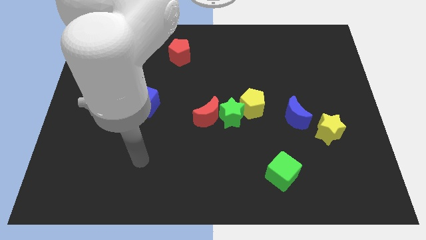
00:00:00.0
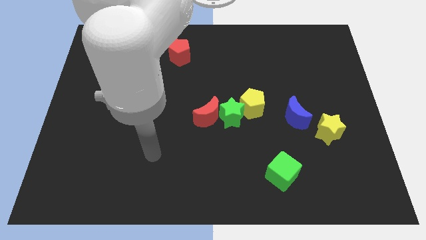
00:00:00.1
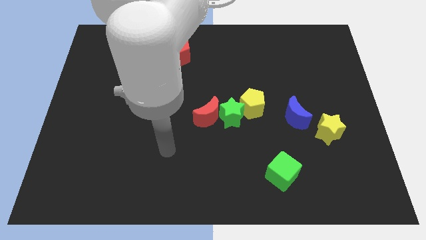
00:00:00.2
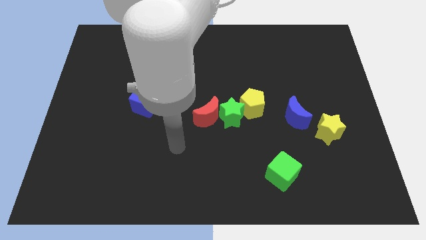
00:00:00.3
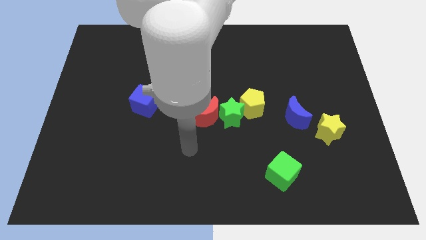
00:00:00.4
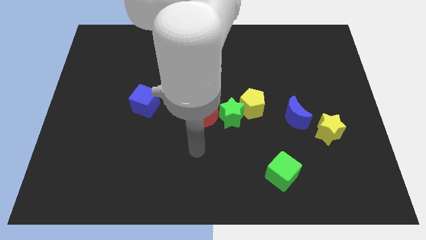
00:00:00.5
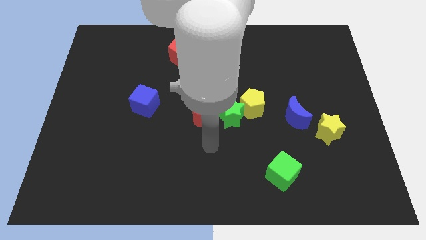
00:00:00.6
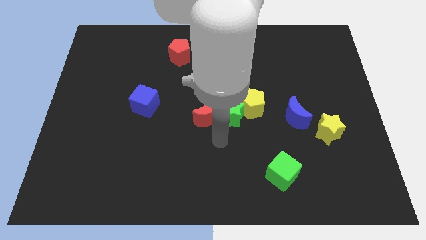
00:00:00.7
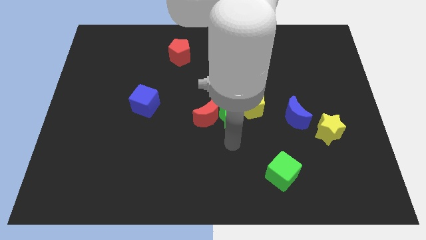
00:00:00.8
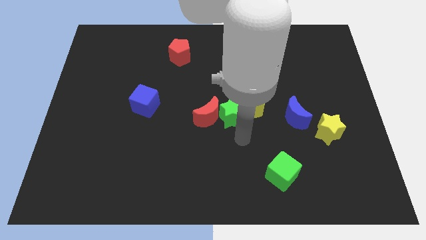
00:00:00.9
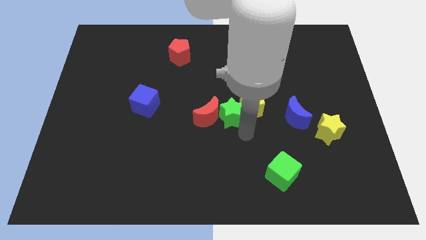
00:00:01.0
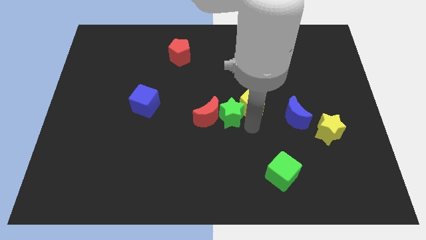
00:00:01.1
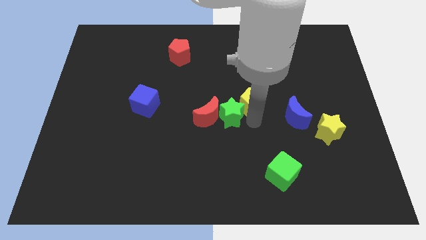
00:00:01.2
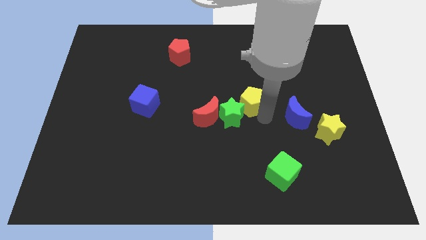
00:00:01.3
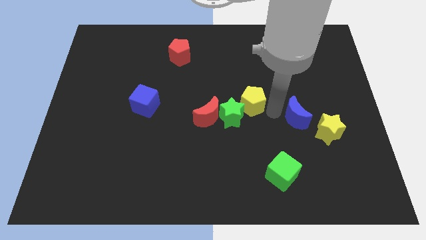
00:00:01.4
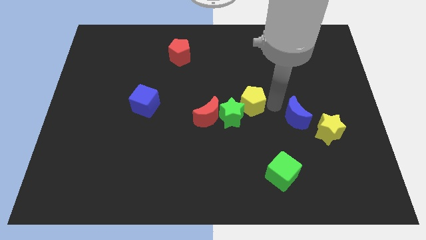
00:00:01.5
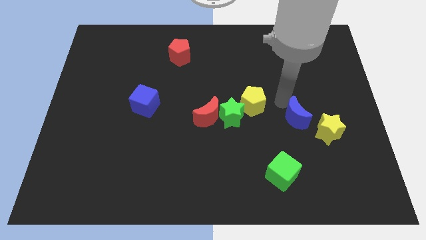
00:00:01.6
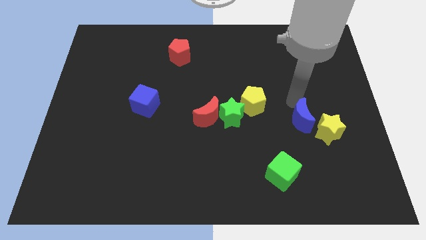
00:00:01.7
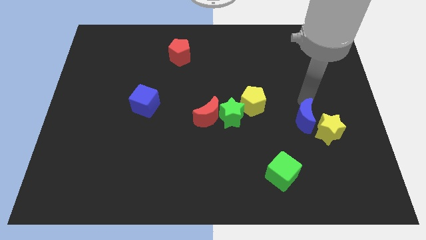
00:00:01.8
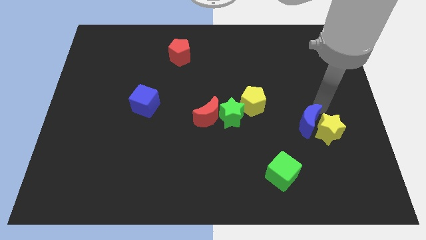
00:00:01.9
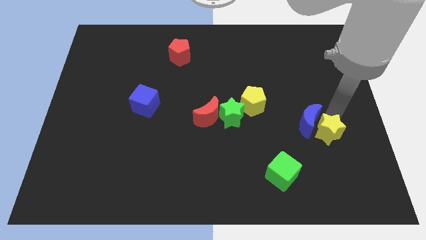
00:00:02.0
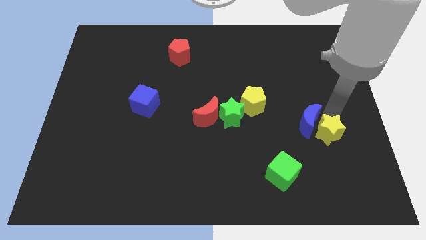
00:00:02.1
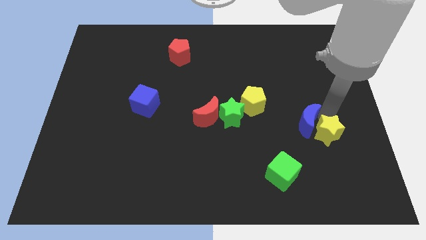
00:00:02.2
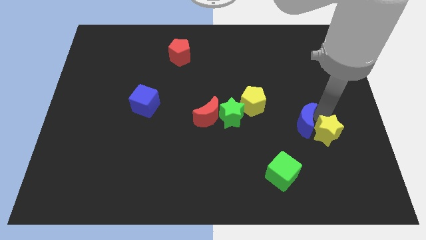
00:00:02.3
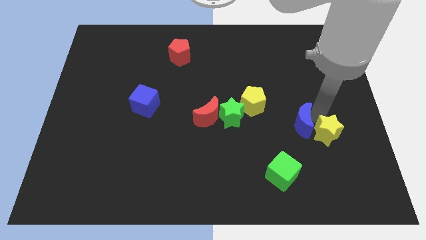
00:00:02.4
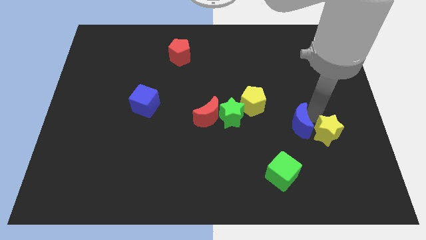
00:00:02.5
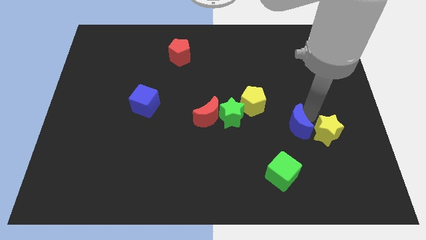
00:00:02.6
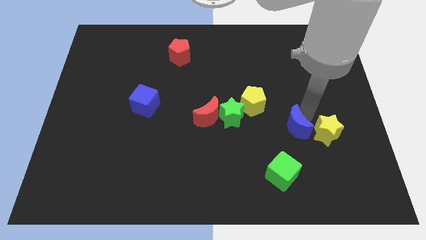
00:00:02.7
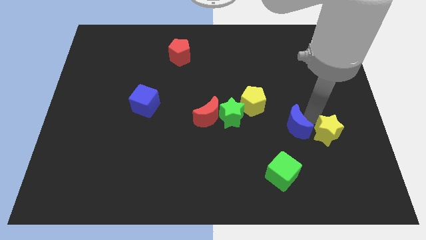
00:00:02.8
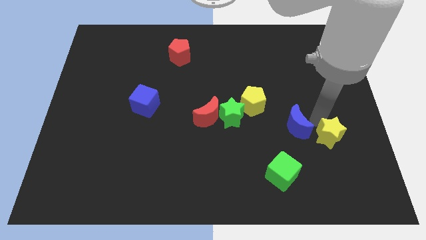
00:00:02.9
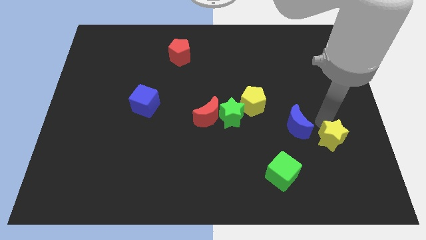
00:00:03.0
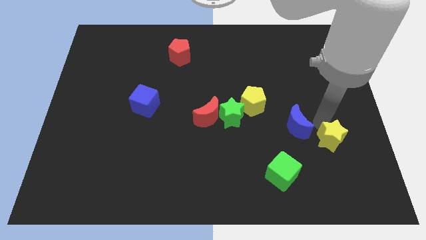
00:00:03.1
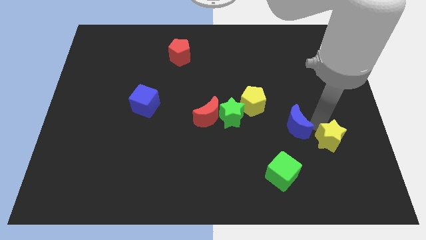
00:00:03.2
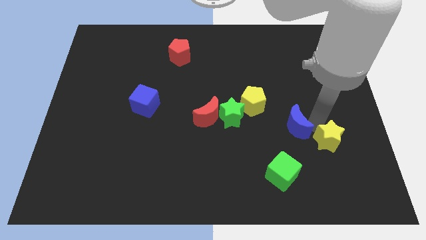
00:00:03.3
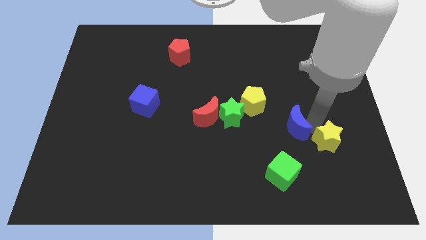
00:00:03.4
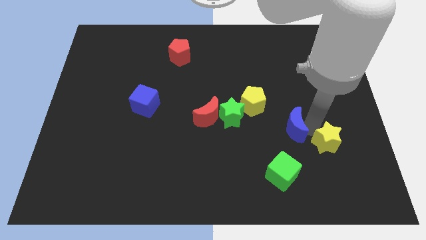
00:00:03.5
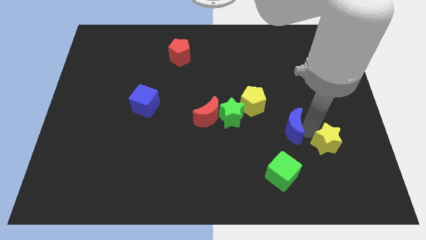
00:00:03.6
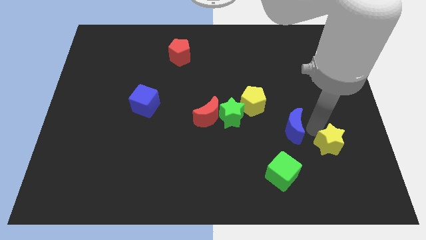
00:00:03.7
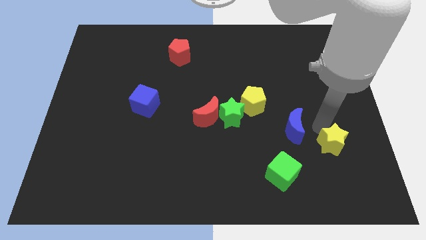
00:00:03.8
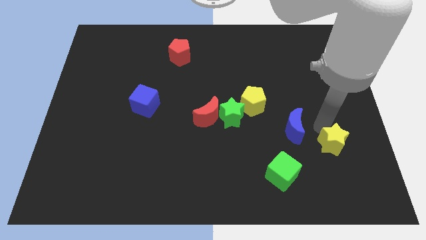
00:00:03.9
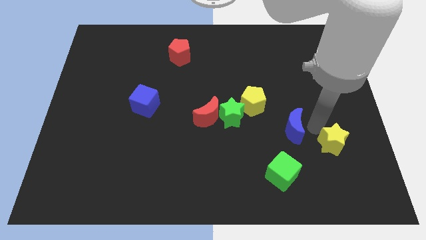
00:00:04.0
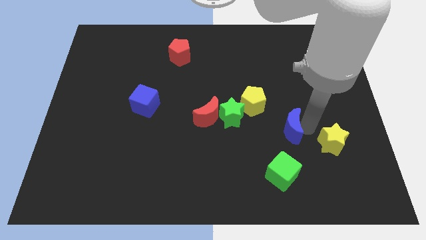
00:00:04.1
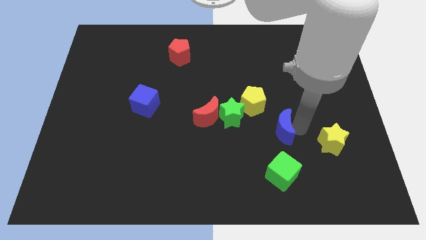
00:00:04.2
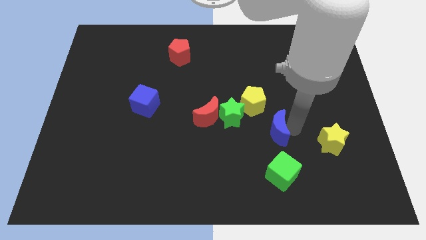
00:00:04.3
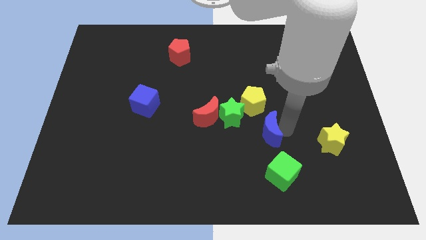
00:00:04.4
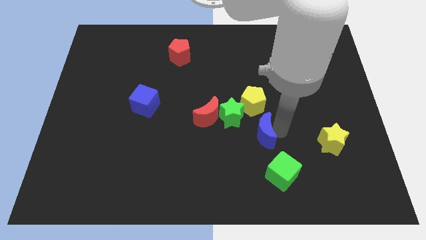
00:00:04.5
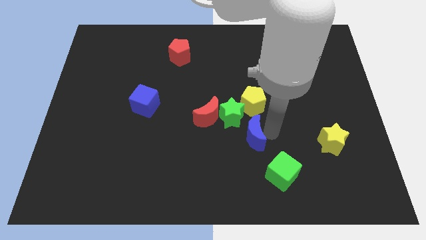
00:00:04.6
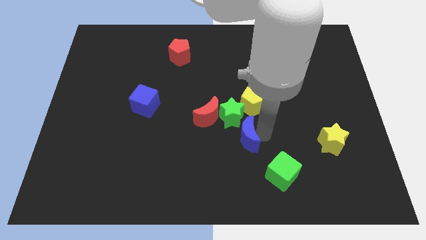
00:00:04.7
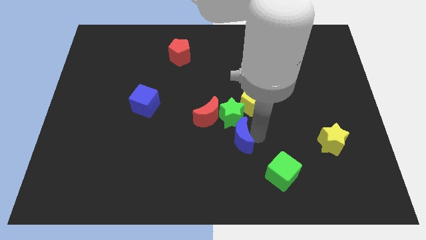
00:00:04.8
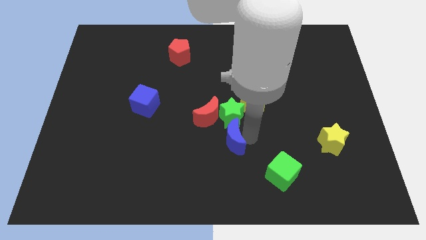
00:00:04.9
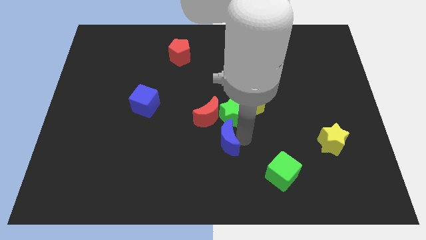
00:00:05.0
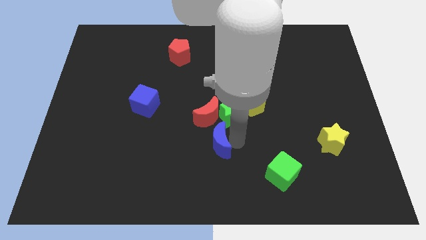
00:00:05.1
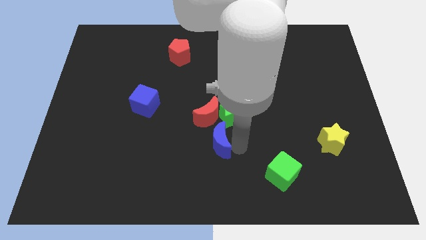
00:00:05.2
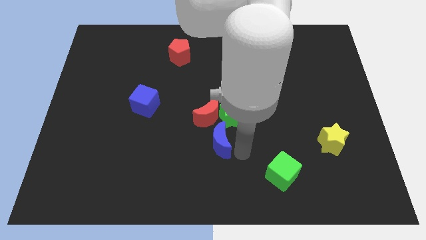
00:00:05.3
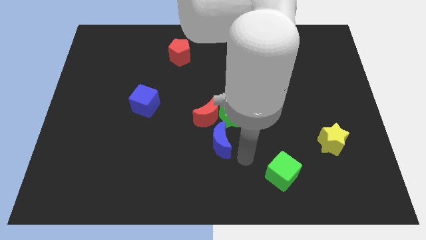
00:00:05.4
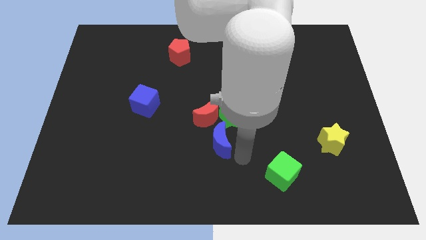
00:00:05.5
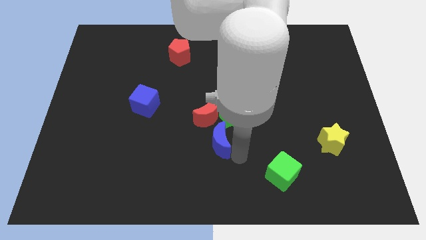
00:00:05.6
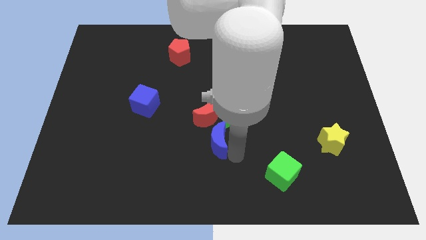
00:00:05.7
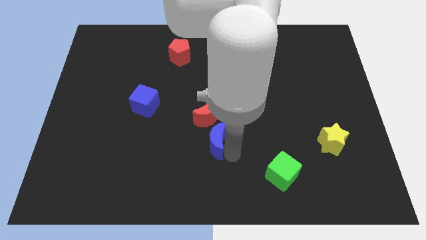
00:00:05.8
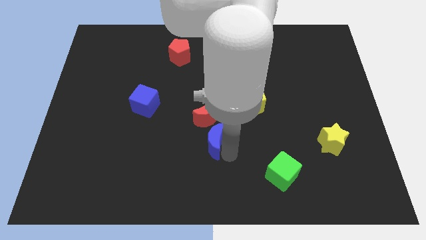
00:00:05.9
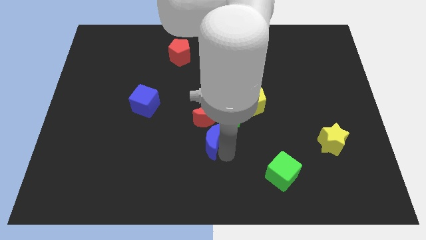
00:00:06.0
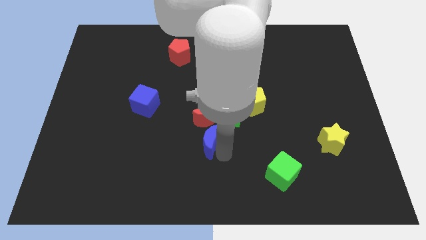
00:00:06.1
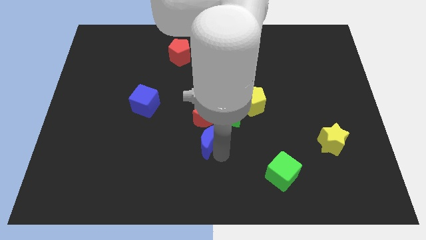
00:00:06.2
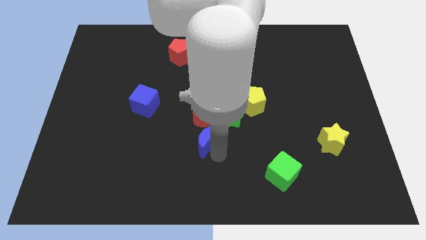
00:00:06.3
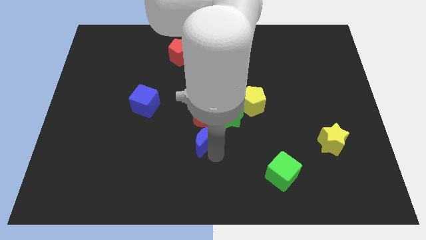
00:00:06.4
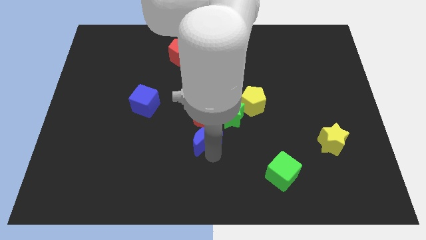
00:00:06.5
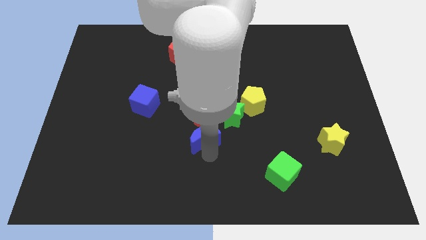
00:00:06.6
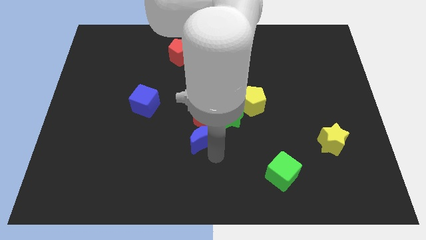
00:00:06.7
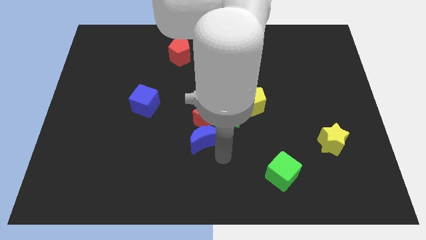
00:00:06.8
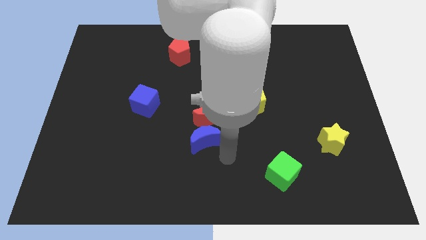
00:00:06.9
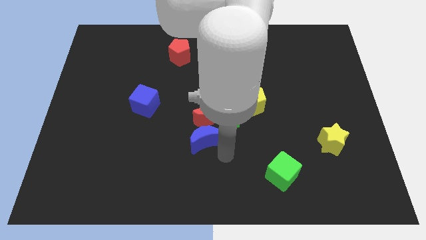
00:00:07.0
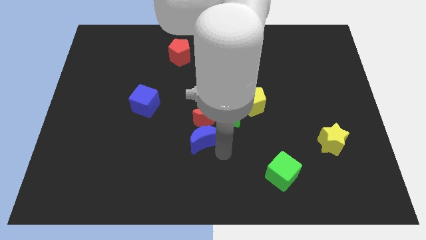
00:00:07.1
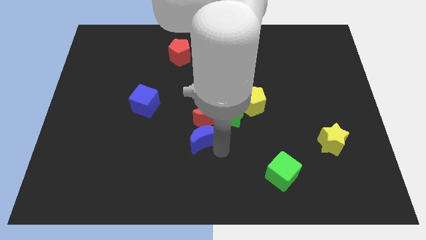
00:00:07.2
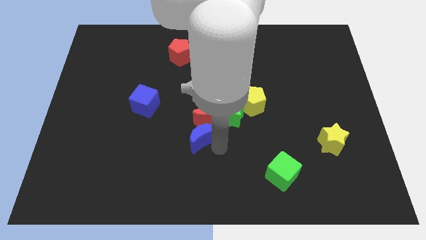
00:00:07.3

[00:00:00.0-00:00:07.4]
push the blue moon to the left

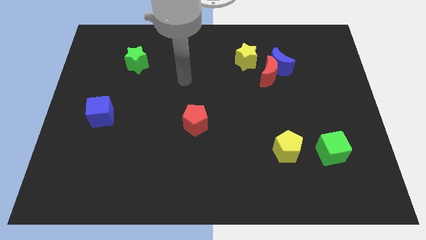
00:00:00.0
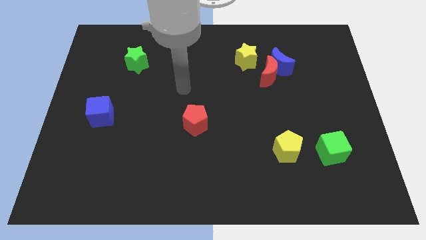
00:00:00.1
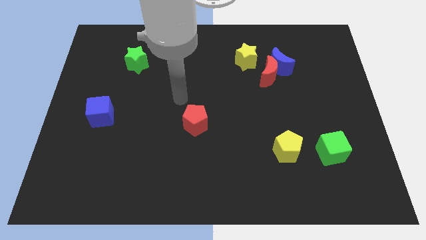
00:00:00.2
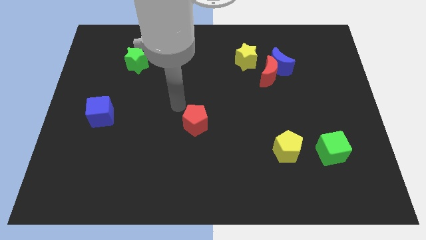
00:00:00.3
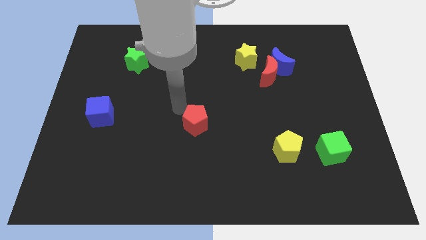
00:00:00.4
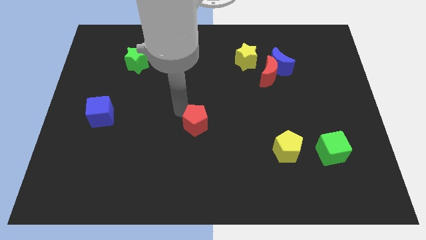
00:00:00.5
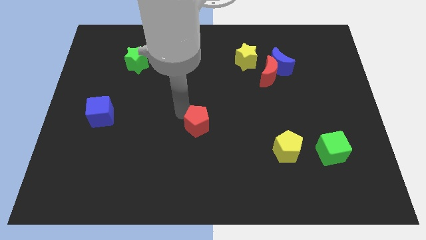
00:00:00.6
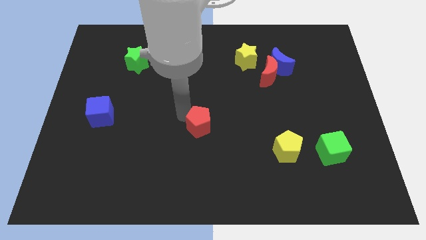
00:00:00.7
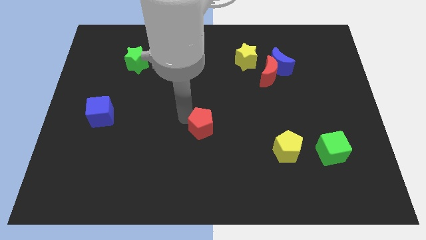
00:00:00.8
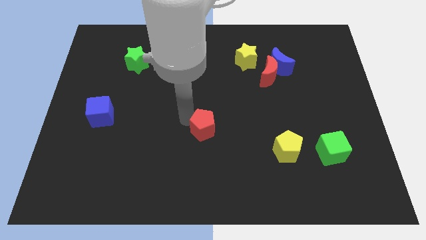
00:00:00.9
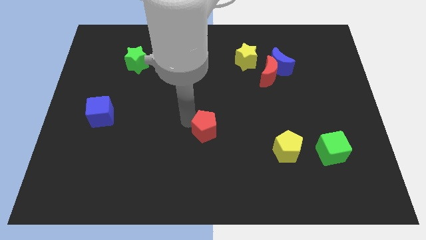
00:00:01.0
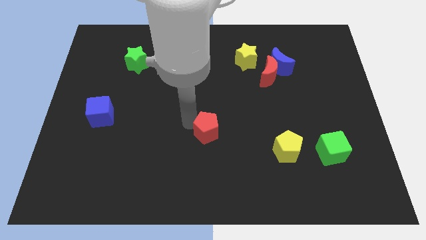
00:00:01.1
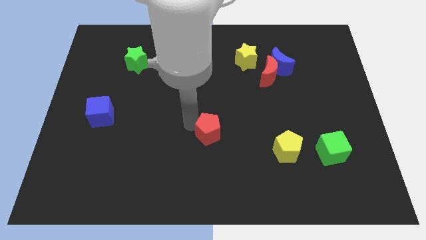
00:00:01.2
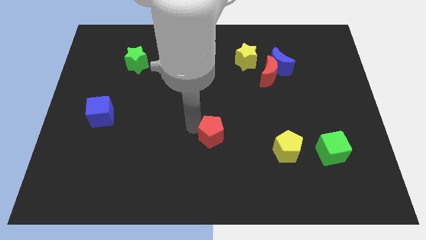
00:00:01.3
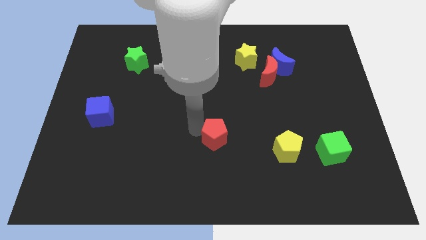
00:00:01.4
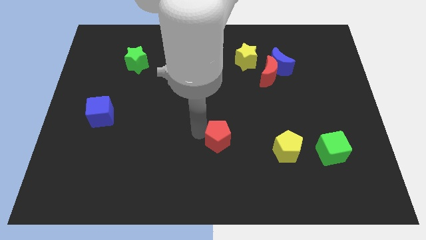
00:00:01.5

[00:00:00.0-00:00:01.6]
slide the red pentagon a little bit down and right diagonally
